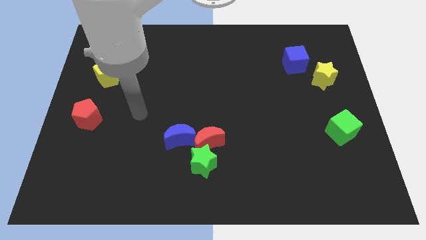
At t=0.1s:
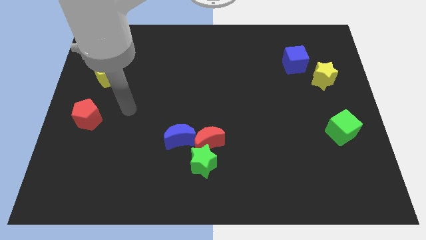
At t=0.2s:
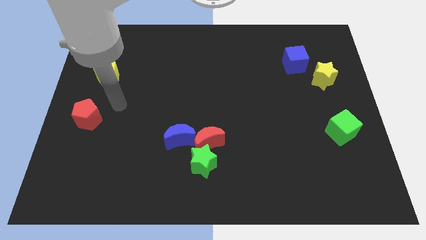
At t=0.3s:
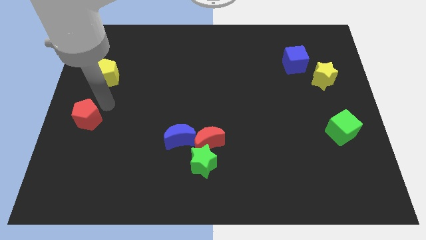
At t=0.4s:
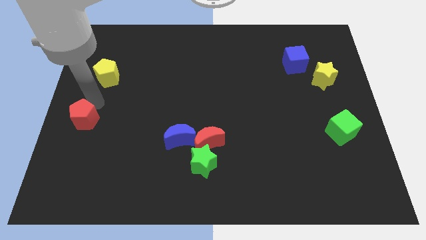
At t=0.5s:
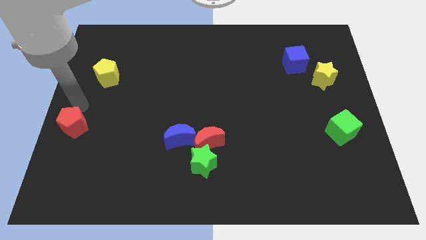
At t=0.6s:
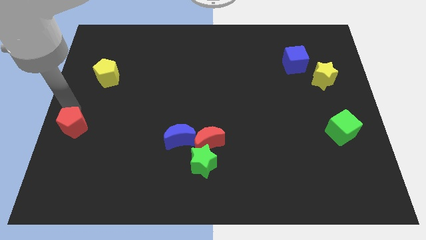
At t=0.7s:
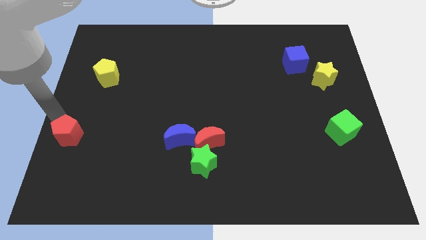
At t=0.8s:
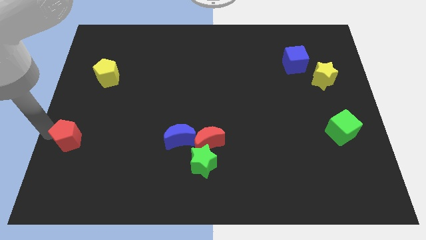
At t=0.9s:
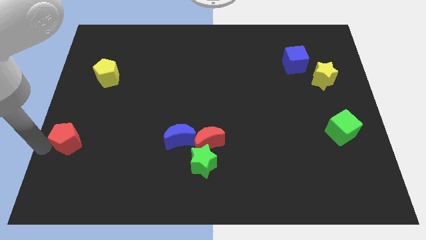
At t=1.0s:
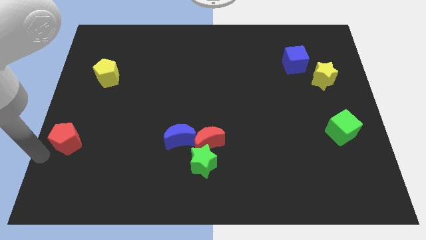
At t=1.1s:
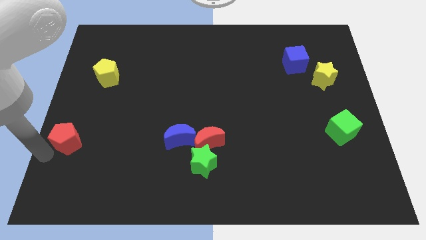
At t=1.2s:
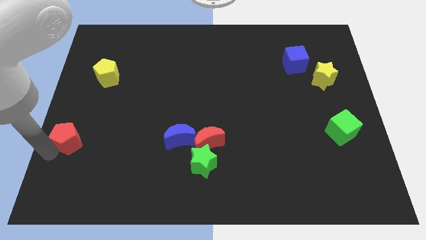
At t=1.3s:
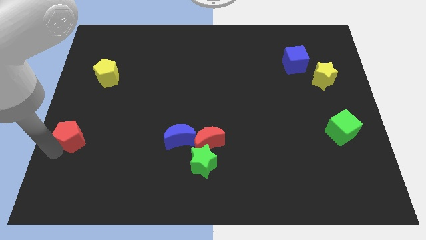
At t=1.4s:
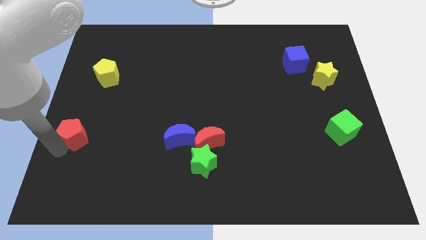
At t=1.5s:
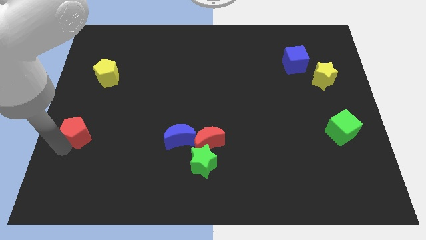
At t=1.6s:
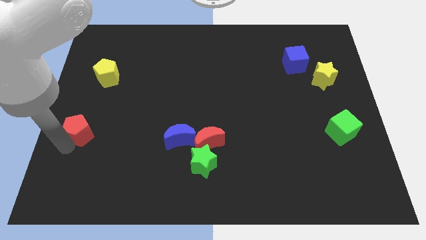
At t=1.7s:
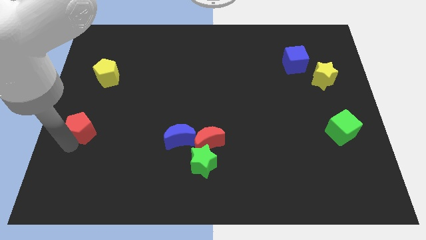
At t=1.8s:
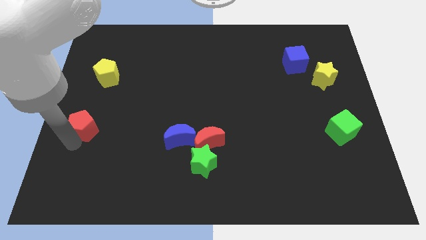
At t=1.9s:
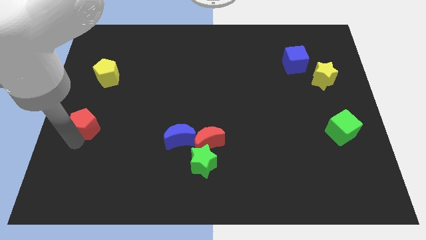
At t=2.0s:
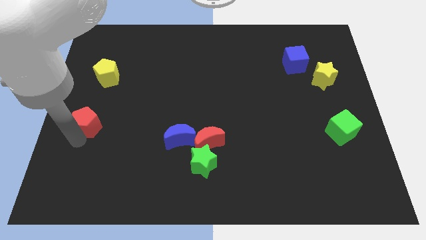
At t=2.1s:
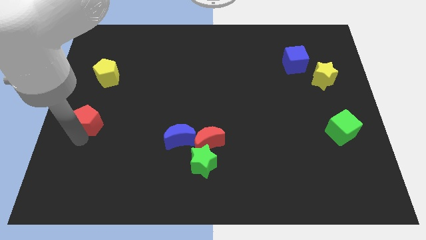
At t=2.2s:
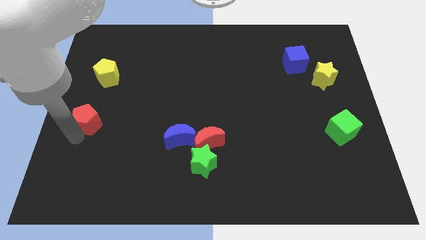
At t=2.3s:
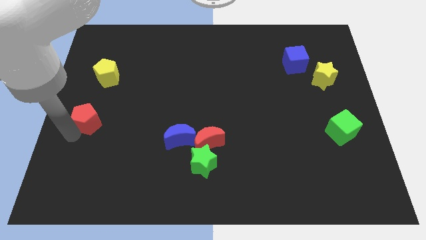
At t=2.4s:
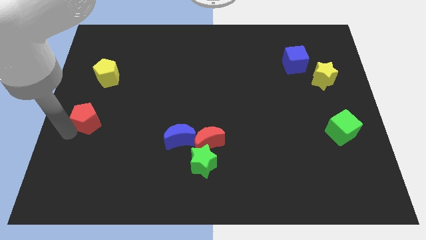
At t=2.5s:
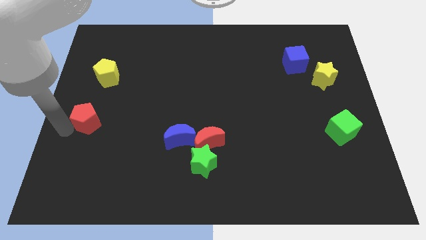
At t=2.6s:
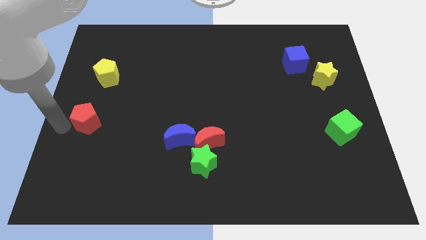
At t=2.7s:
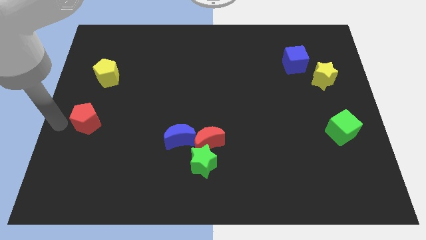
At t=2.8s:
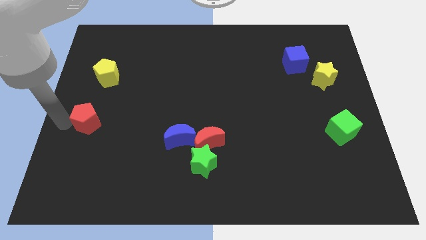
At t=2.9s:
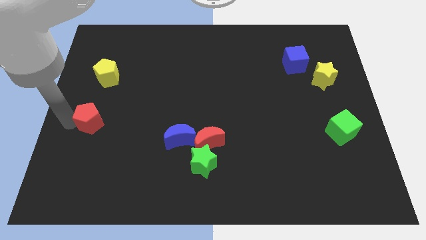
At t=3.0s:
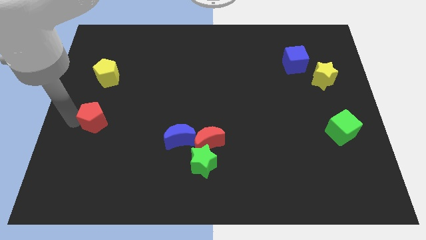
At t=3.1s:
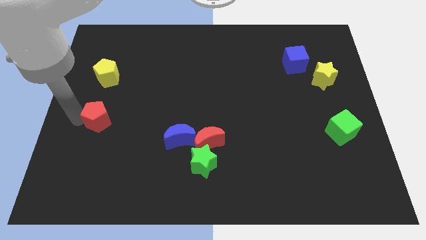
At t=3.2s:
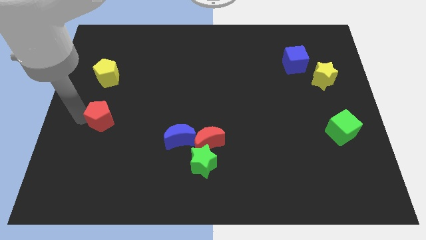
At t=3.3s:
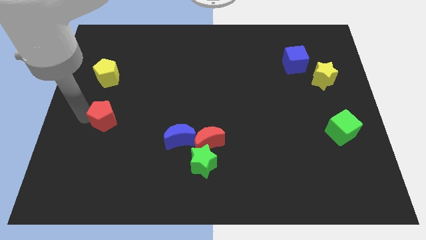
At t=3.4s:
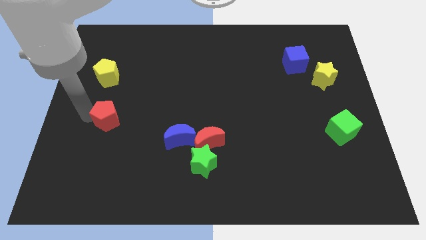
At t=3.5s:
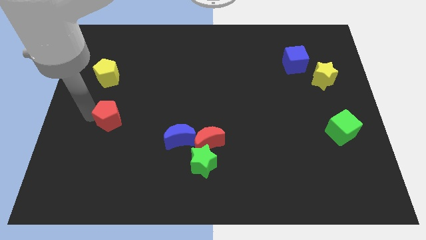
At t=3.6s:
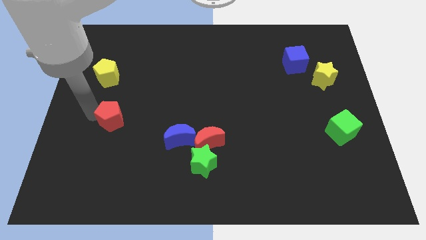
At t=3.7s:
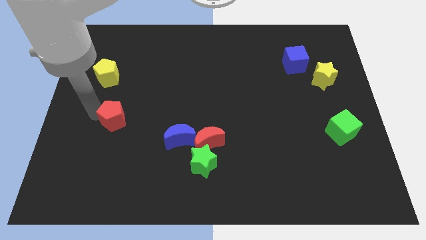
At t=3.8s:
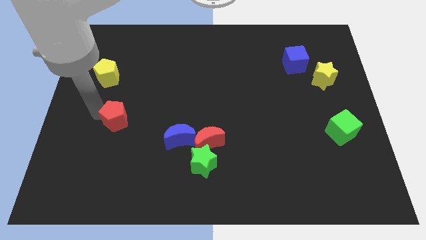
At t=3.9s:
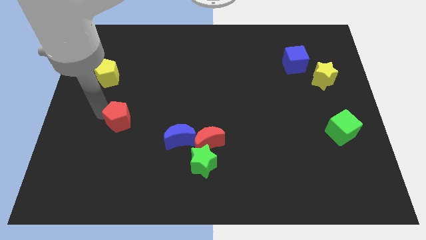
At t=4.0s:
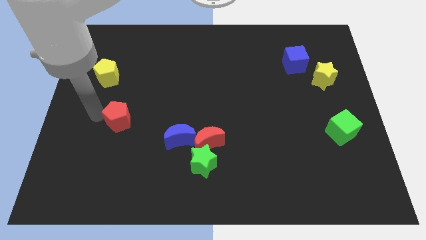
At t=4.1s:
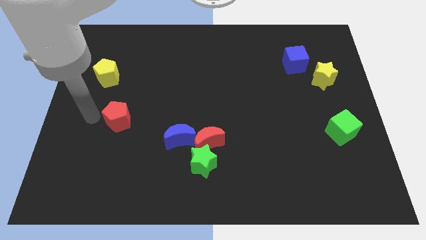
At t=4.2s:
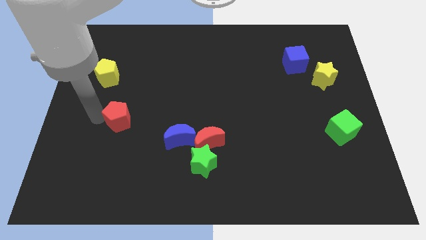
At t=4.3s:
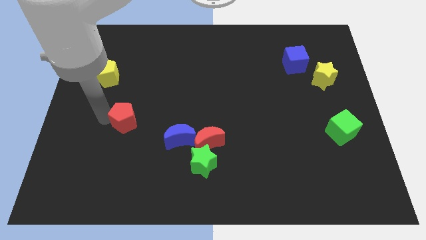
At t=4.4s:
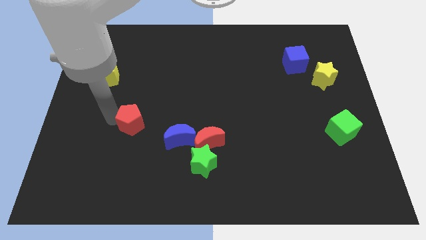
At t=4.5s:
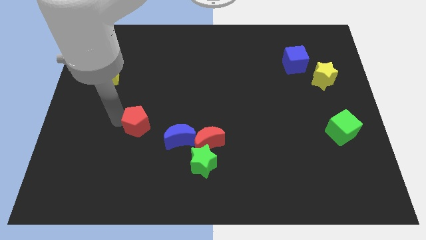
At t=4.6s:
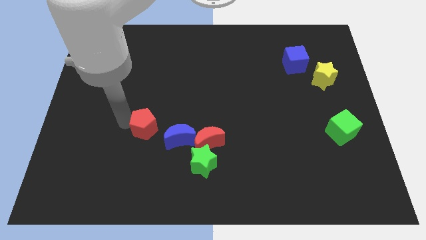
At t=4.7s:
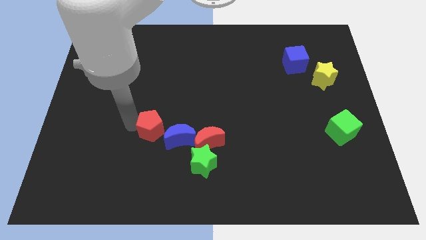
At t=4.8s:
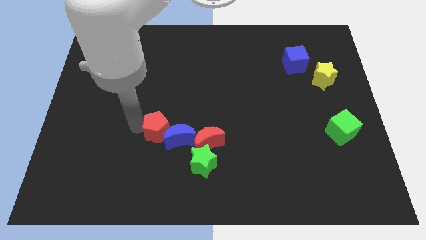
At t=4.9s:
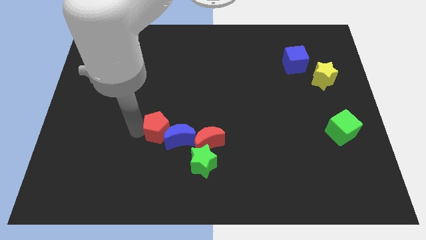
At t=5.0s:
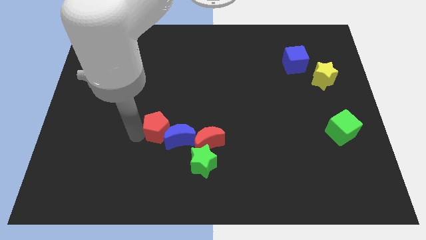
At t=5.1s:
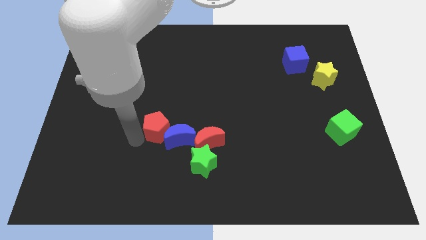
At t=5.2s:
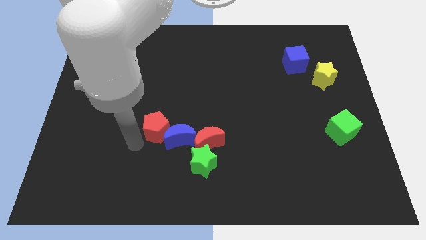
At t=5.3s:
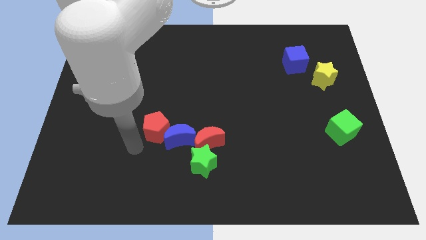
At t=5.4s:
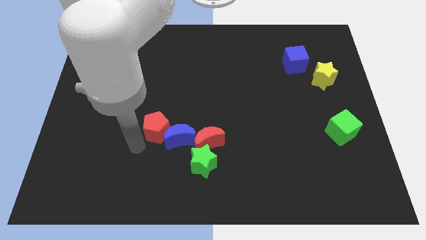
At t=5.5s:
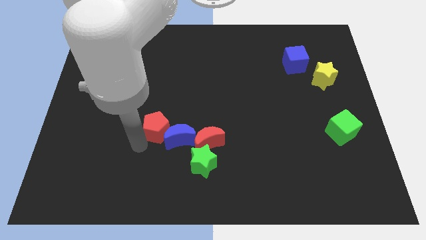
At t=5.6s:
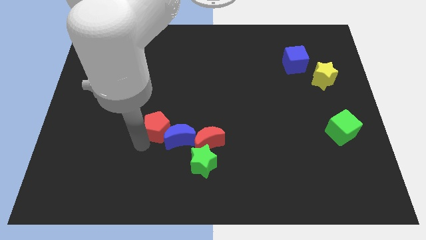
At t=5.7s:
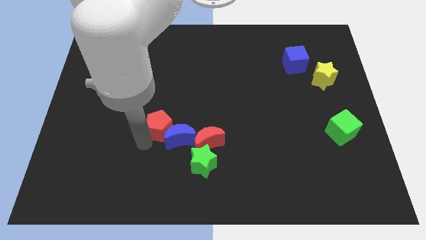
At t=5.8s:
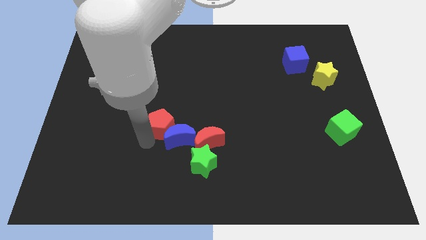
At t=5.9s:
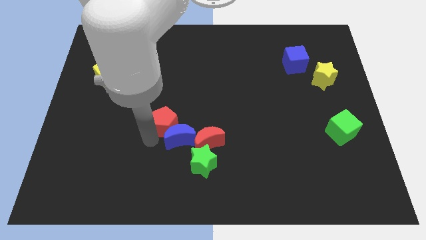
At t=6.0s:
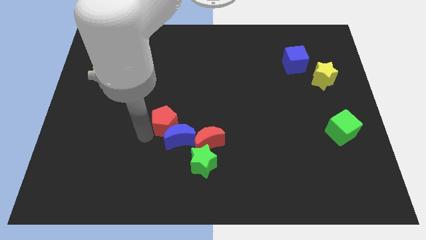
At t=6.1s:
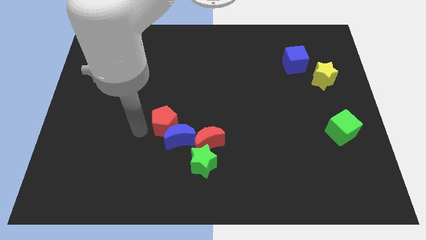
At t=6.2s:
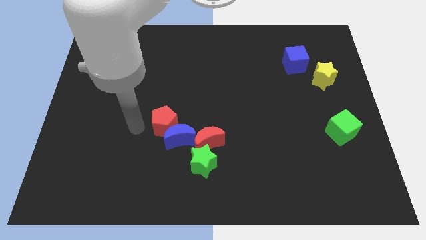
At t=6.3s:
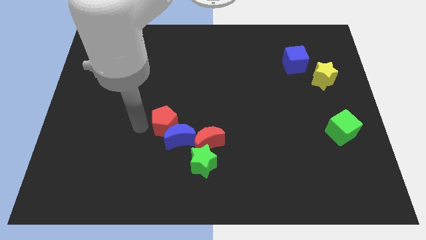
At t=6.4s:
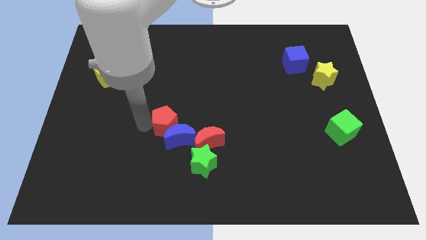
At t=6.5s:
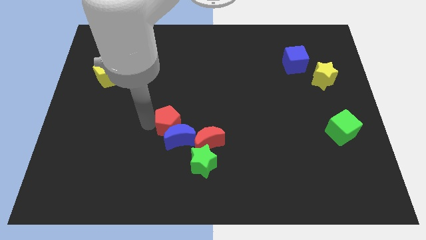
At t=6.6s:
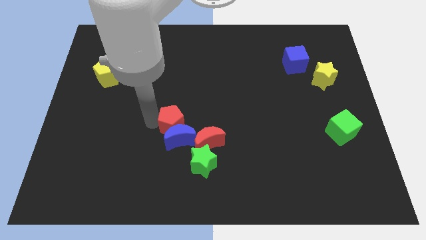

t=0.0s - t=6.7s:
put the red pentagon to the top right side of the blue moon

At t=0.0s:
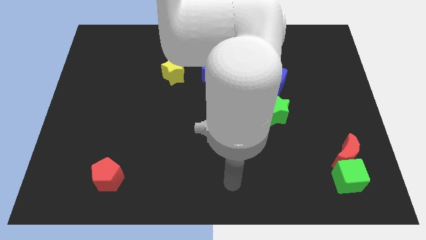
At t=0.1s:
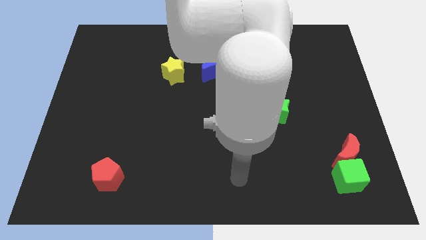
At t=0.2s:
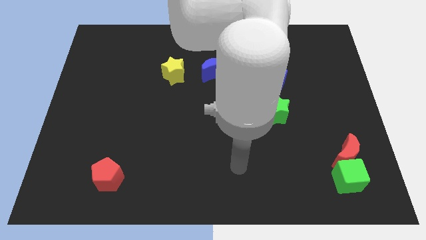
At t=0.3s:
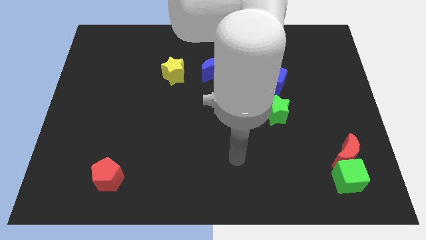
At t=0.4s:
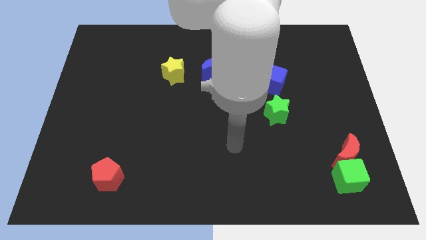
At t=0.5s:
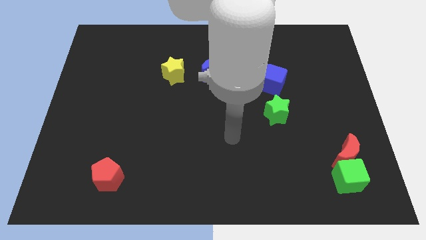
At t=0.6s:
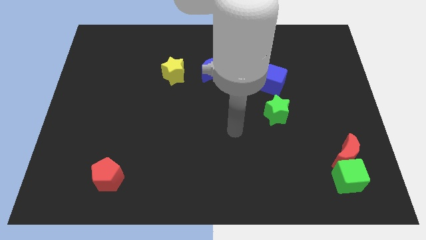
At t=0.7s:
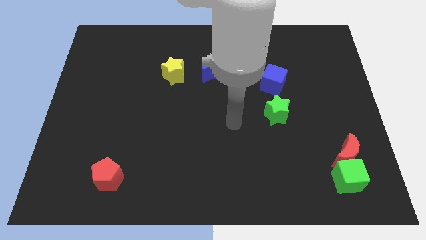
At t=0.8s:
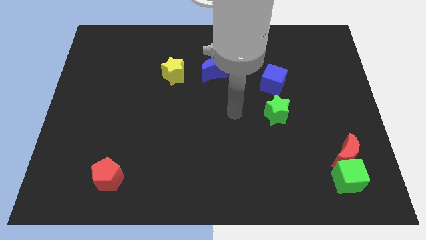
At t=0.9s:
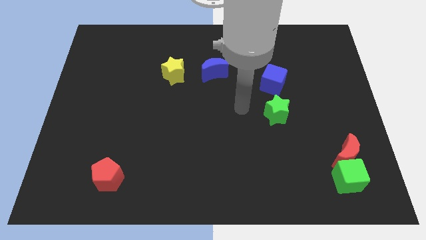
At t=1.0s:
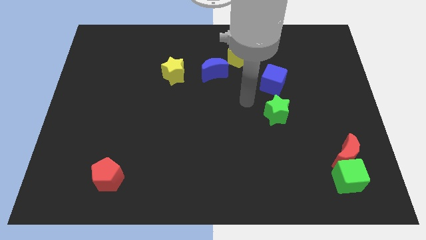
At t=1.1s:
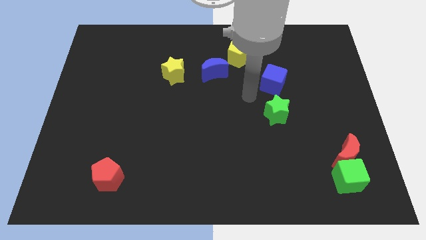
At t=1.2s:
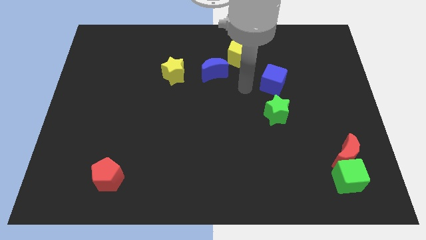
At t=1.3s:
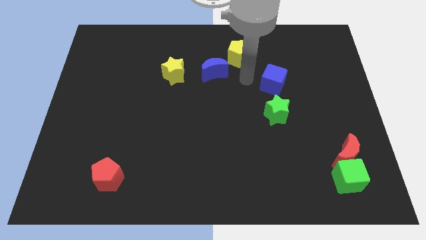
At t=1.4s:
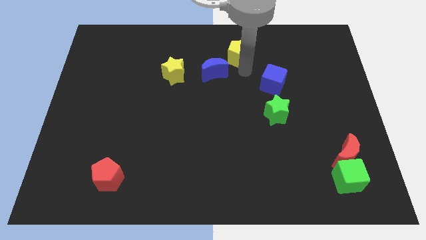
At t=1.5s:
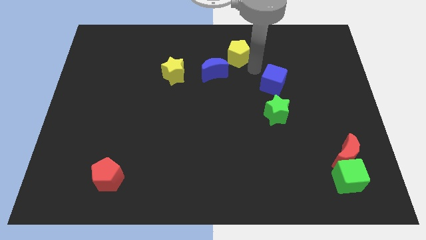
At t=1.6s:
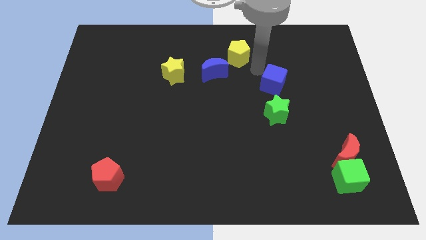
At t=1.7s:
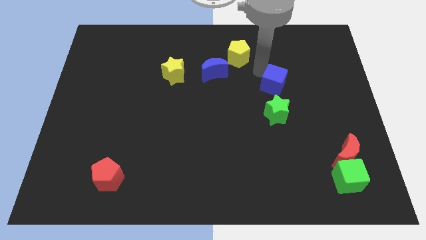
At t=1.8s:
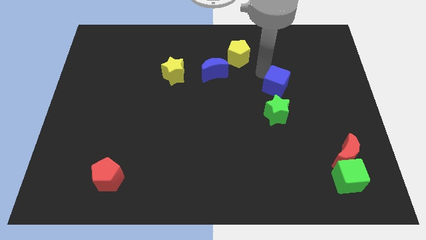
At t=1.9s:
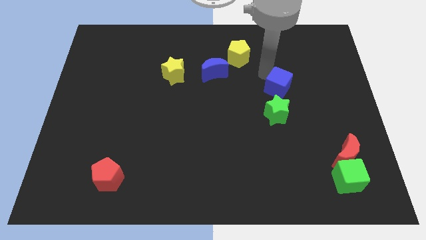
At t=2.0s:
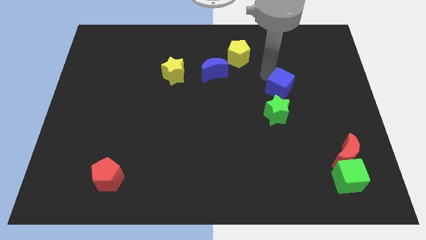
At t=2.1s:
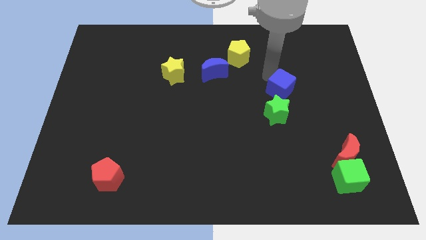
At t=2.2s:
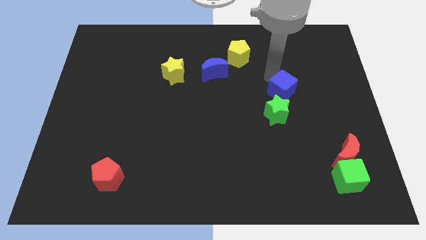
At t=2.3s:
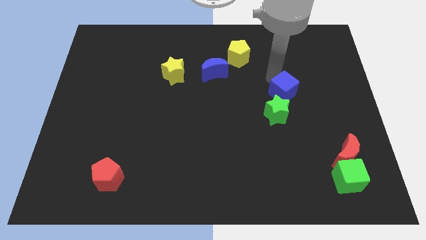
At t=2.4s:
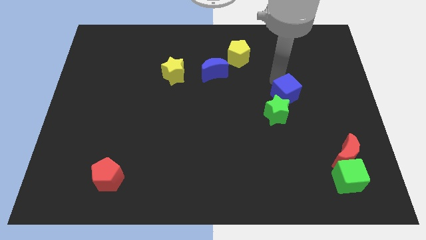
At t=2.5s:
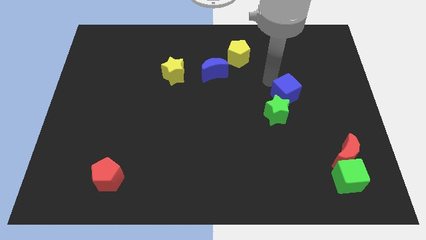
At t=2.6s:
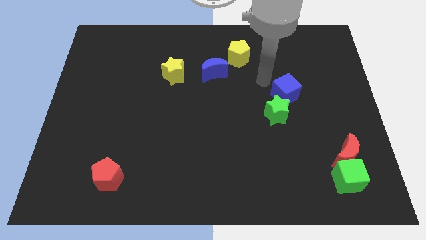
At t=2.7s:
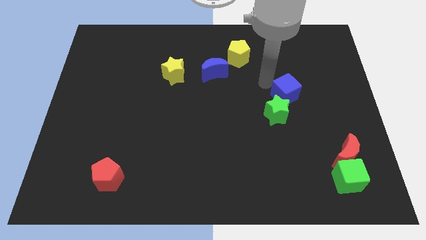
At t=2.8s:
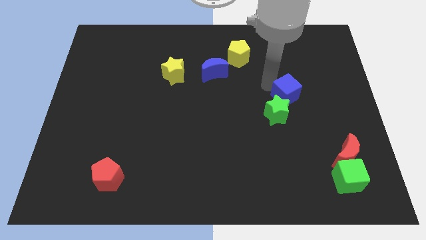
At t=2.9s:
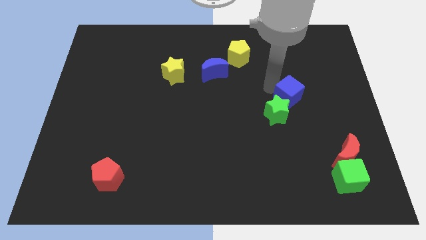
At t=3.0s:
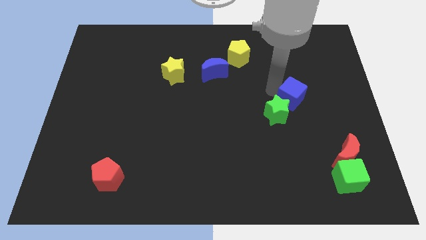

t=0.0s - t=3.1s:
move the blue cube to the right side of the green star
